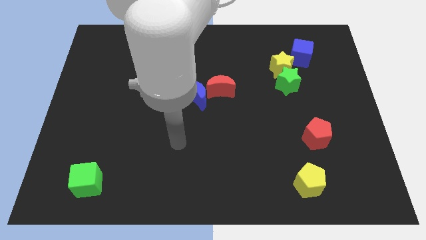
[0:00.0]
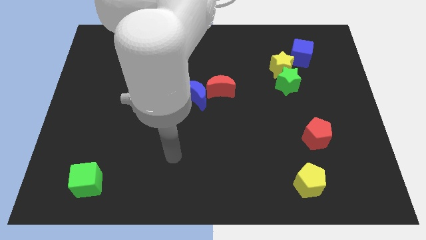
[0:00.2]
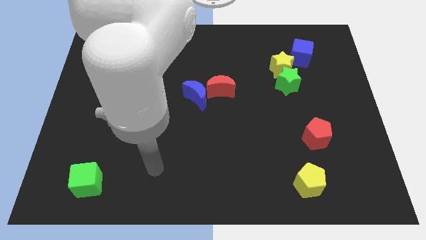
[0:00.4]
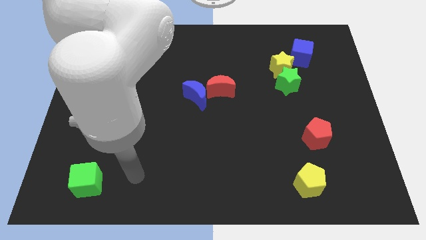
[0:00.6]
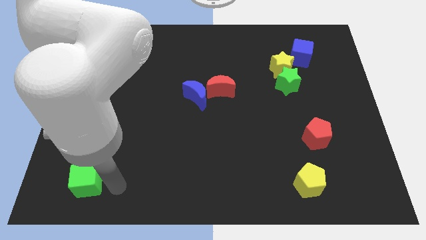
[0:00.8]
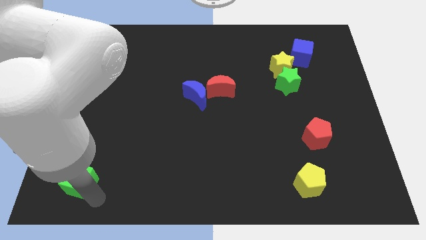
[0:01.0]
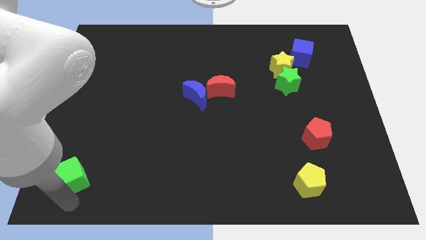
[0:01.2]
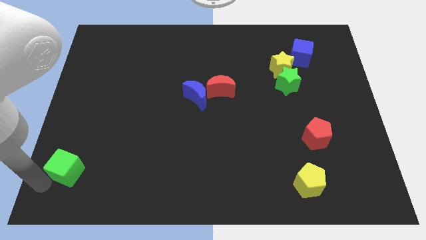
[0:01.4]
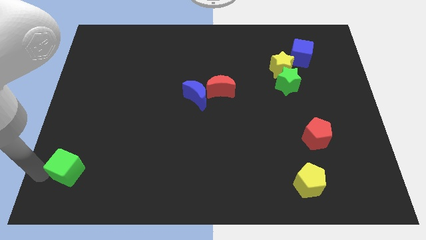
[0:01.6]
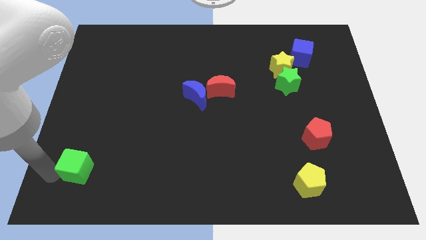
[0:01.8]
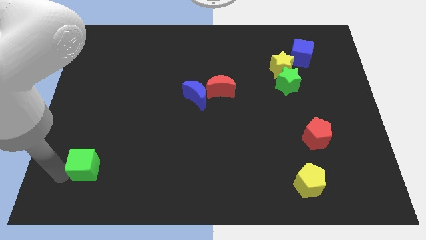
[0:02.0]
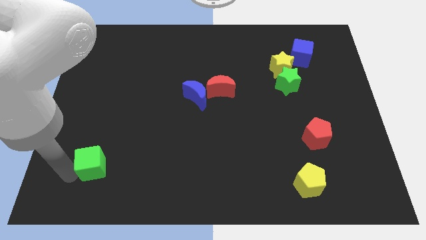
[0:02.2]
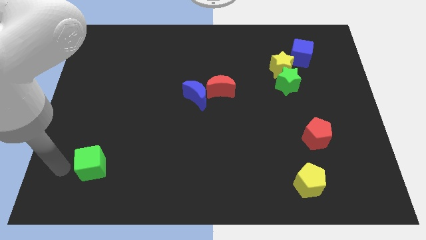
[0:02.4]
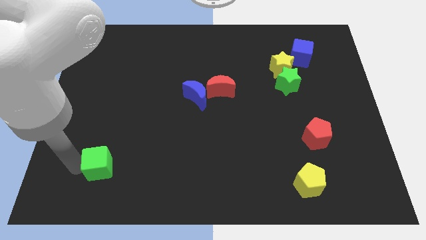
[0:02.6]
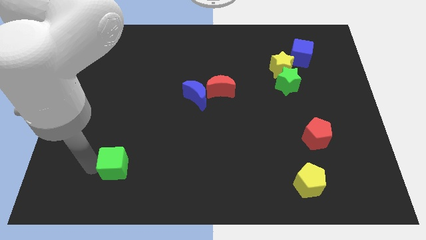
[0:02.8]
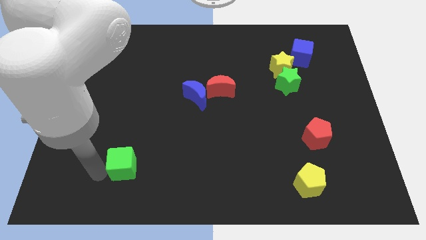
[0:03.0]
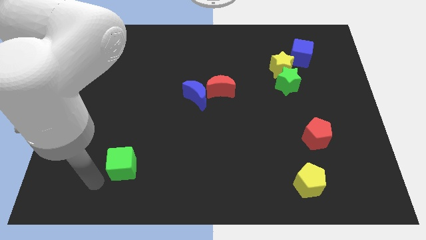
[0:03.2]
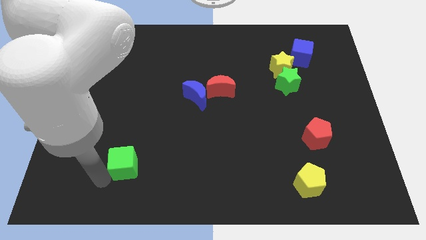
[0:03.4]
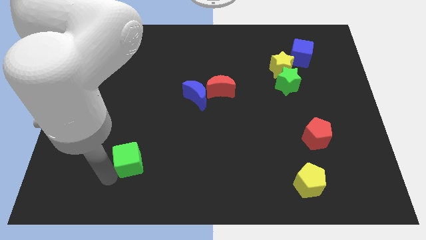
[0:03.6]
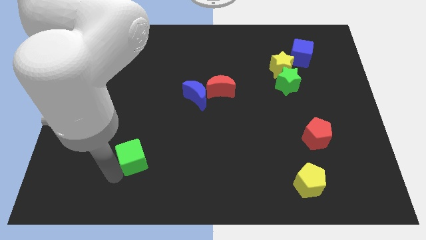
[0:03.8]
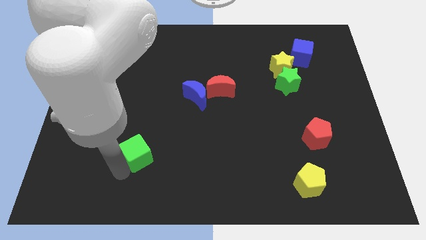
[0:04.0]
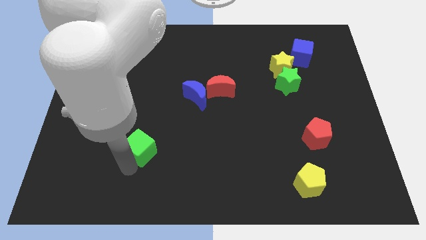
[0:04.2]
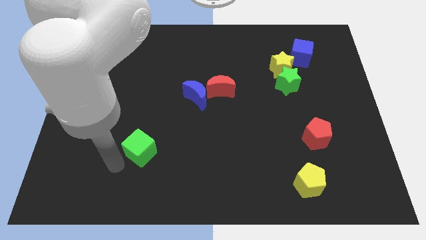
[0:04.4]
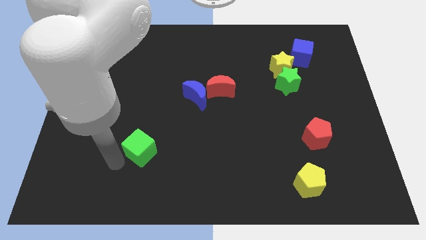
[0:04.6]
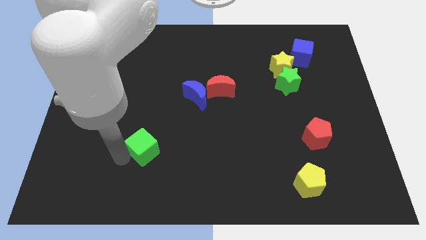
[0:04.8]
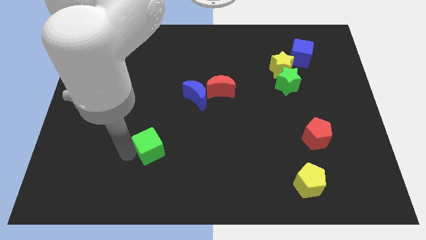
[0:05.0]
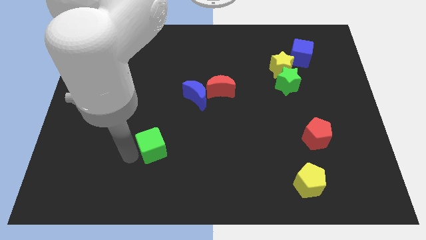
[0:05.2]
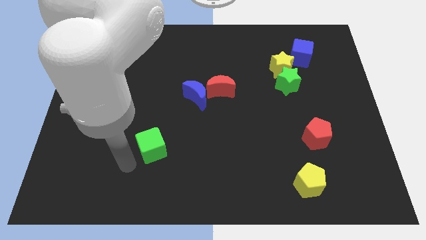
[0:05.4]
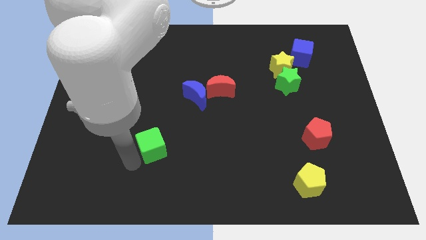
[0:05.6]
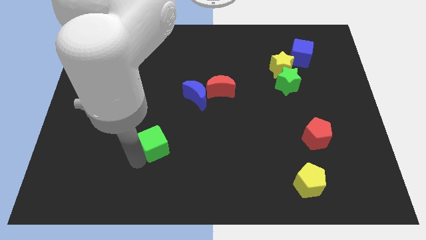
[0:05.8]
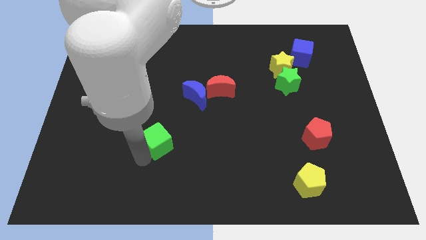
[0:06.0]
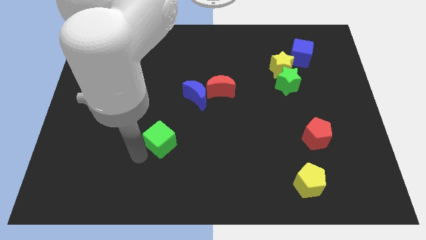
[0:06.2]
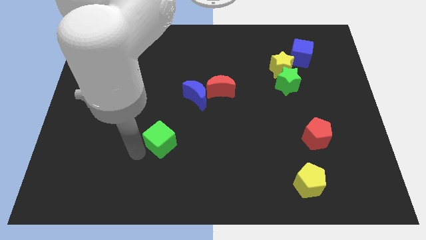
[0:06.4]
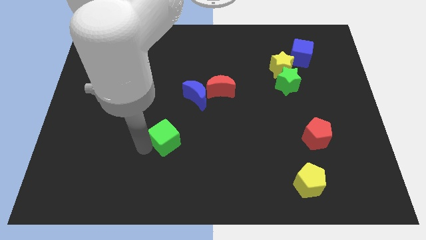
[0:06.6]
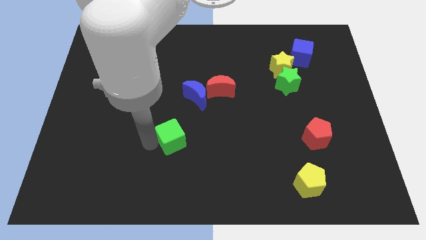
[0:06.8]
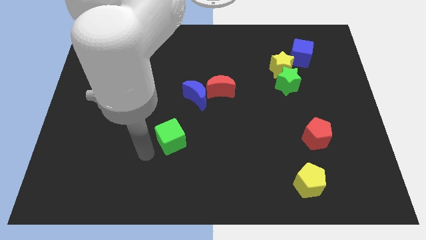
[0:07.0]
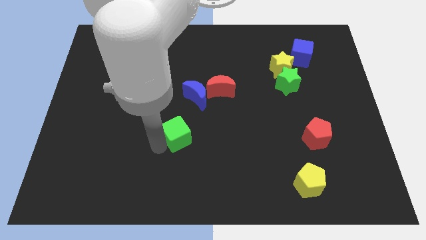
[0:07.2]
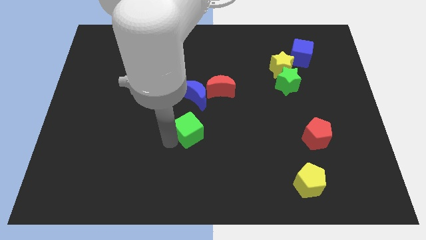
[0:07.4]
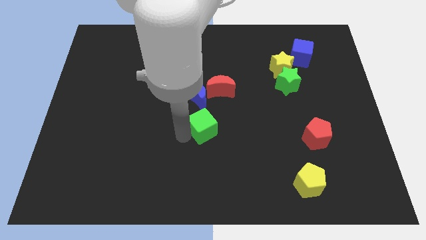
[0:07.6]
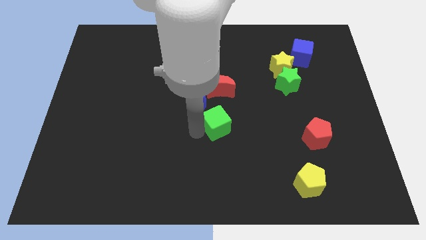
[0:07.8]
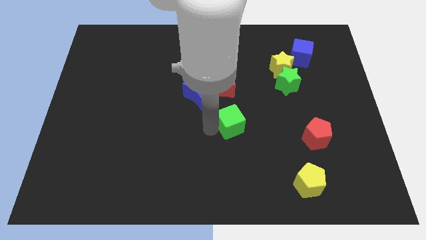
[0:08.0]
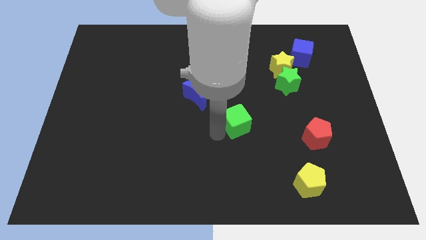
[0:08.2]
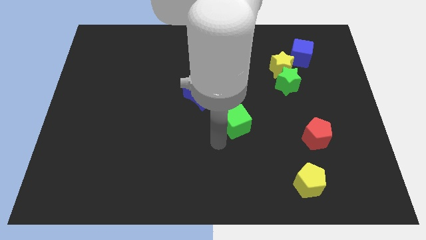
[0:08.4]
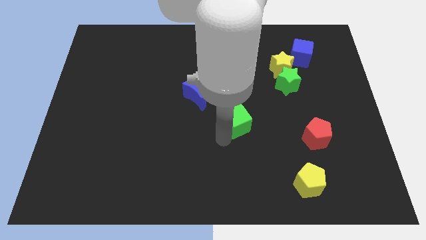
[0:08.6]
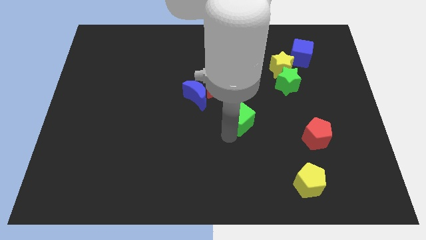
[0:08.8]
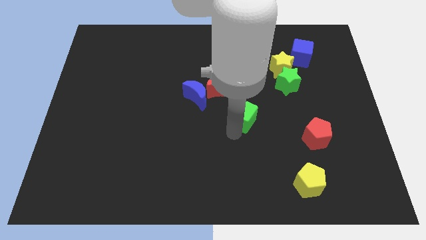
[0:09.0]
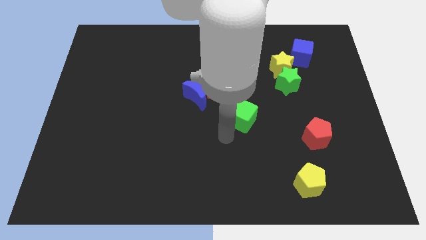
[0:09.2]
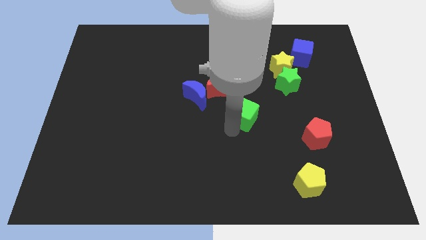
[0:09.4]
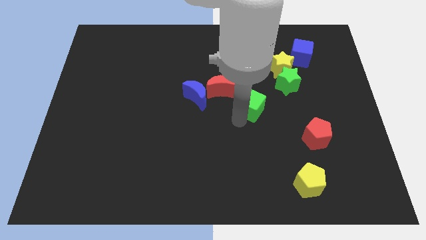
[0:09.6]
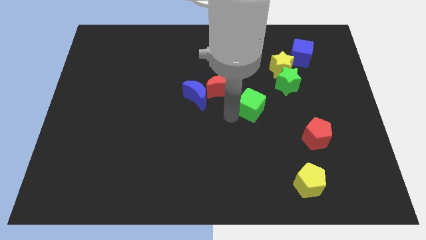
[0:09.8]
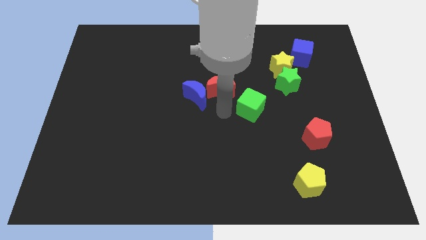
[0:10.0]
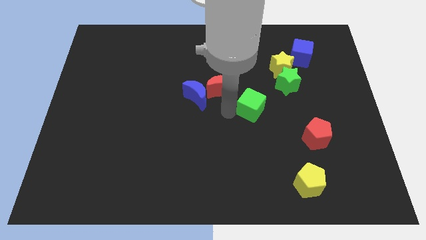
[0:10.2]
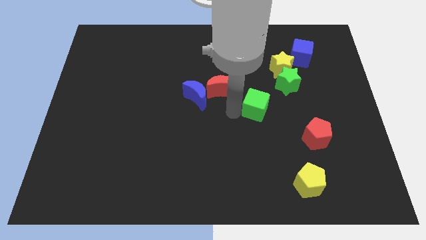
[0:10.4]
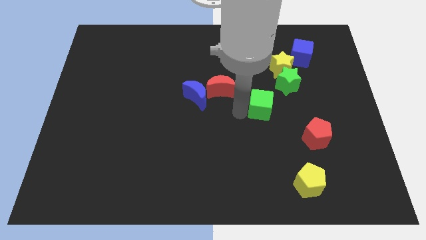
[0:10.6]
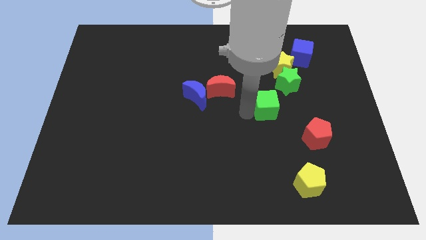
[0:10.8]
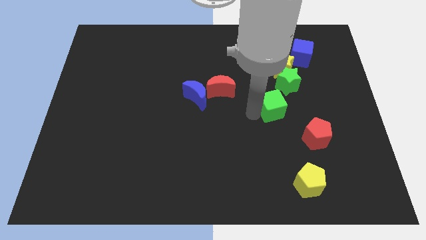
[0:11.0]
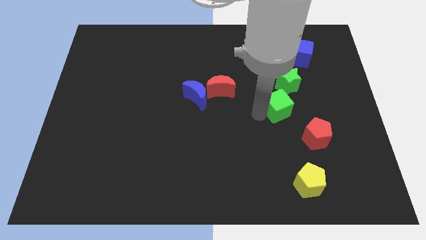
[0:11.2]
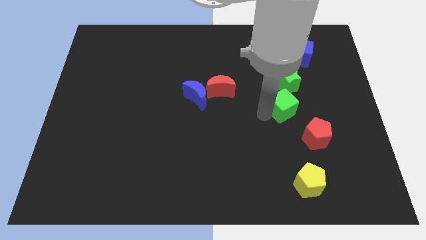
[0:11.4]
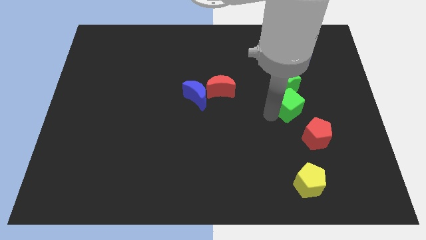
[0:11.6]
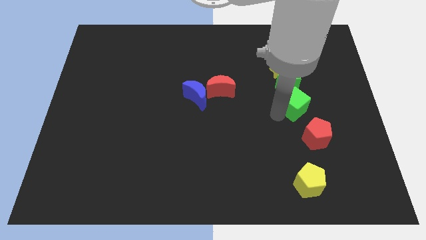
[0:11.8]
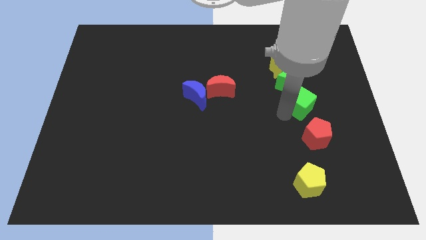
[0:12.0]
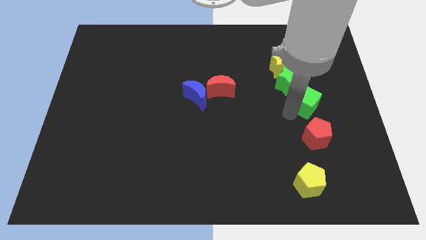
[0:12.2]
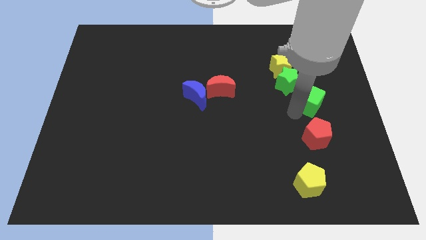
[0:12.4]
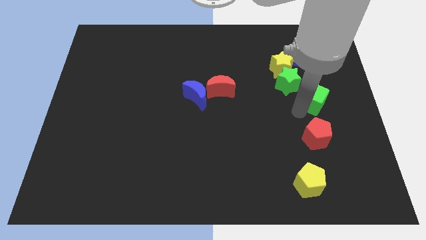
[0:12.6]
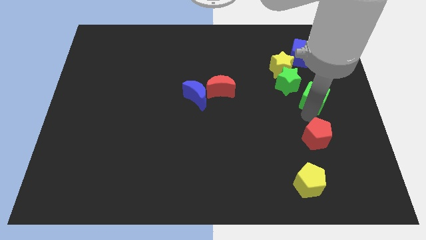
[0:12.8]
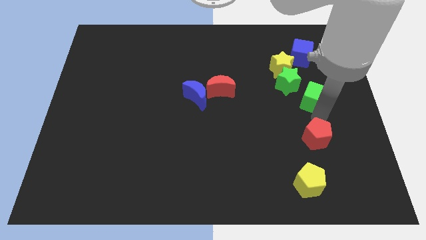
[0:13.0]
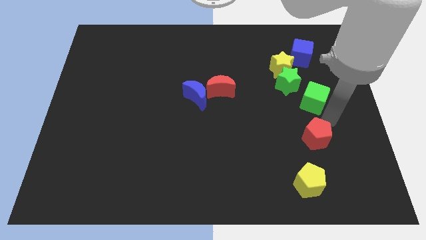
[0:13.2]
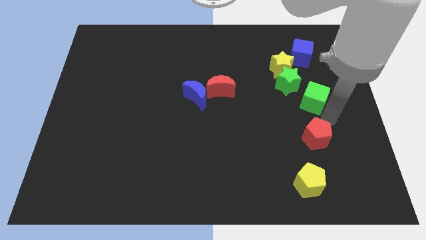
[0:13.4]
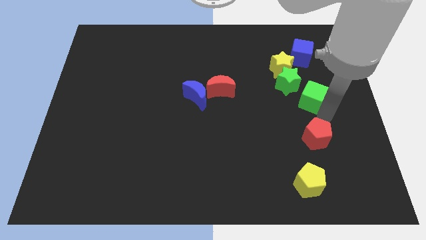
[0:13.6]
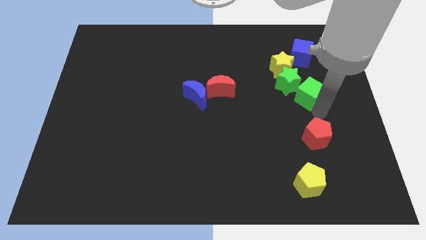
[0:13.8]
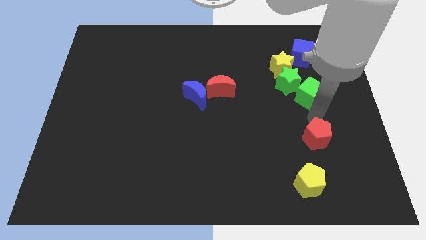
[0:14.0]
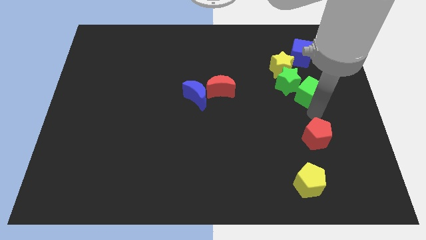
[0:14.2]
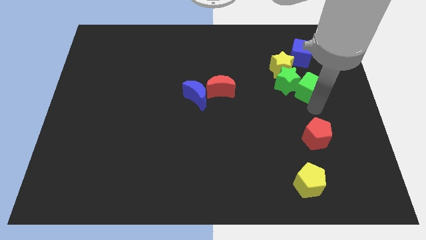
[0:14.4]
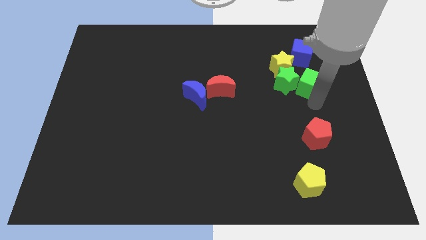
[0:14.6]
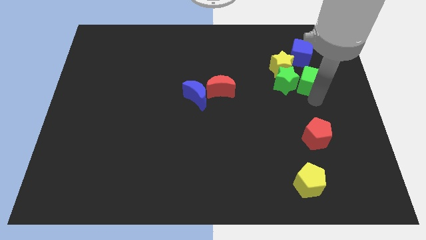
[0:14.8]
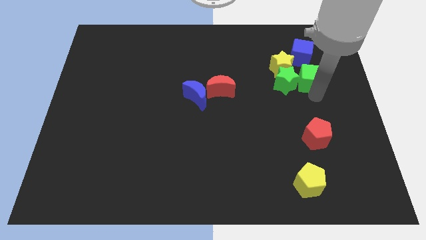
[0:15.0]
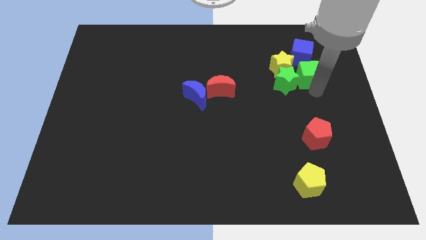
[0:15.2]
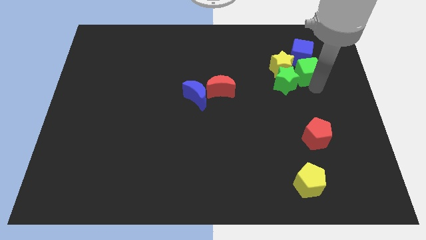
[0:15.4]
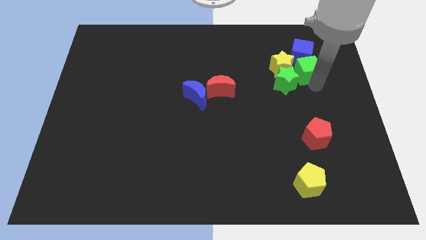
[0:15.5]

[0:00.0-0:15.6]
put the green cube towards the blue cube
